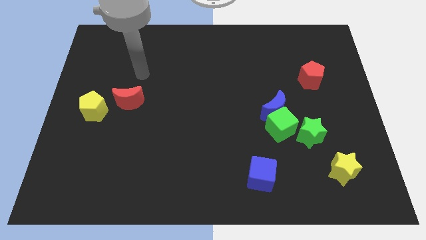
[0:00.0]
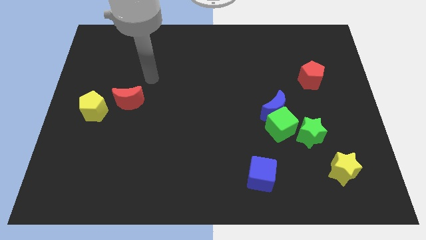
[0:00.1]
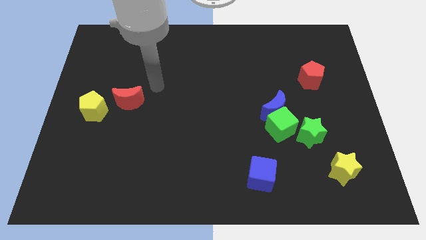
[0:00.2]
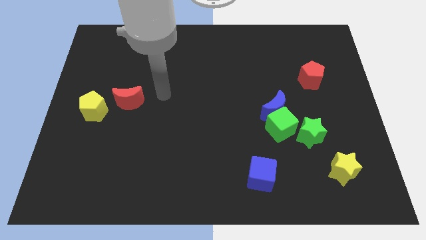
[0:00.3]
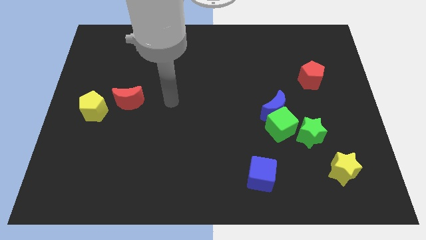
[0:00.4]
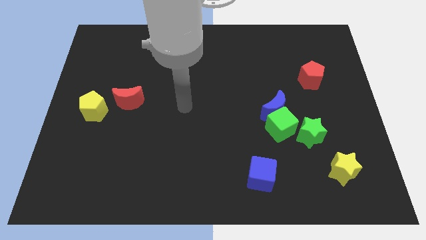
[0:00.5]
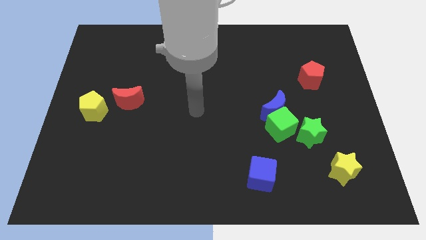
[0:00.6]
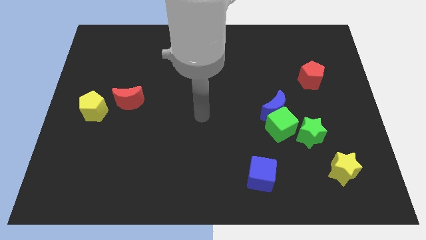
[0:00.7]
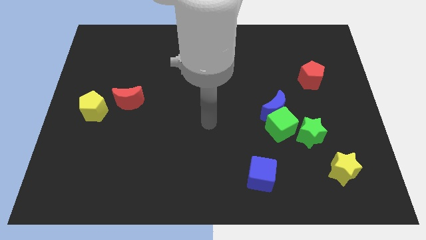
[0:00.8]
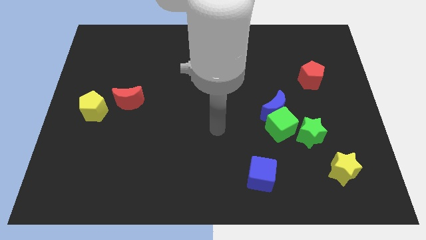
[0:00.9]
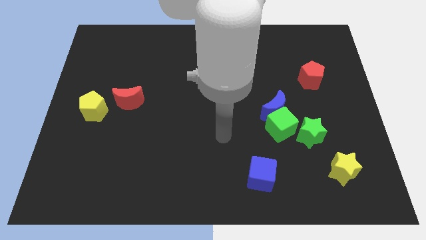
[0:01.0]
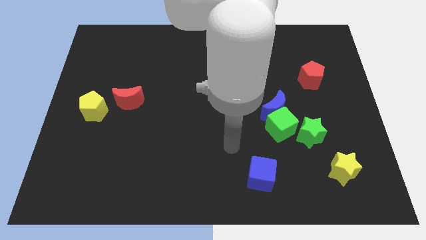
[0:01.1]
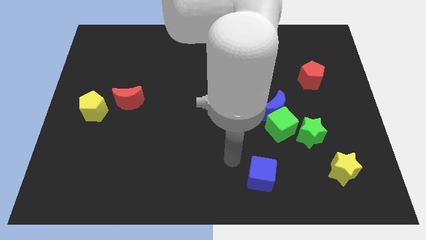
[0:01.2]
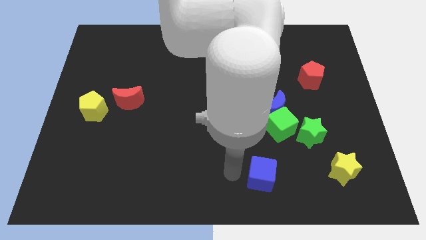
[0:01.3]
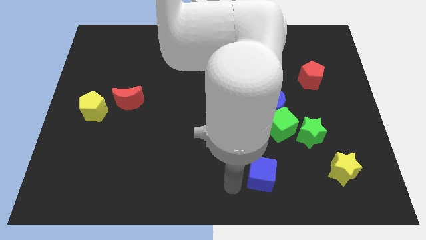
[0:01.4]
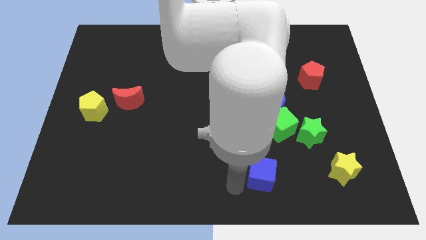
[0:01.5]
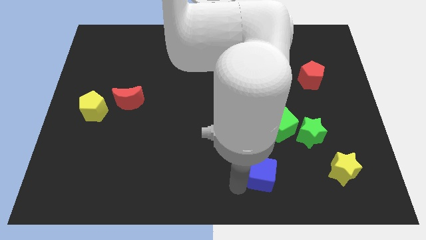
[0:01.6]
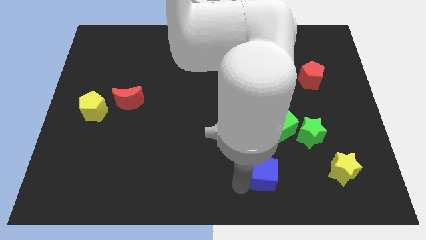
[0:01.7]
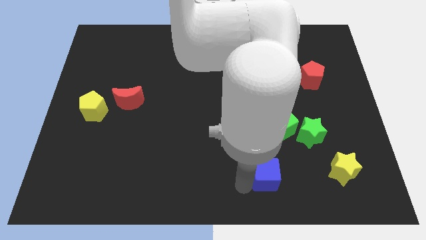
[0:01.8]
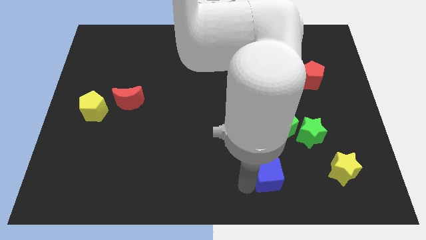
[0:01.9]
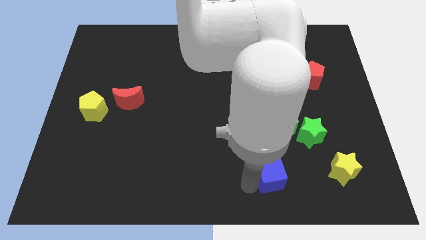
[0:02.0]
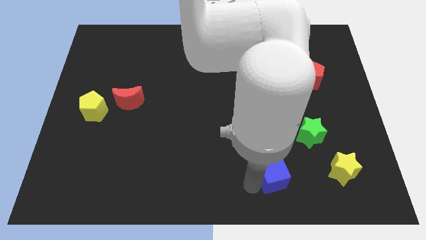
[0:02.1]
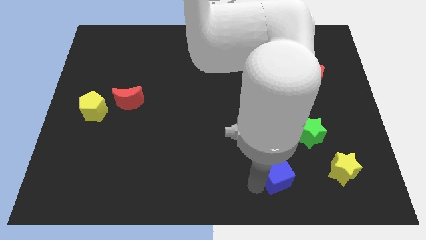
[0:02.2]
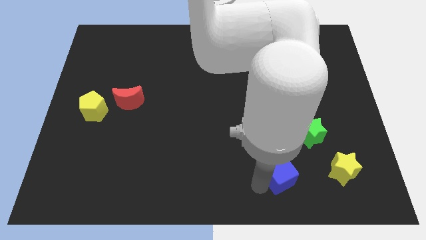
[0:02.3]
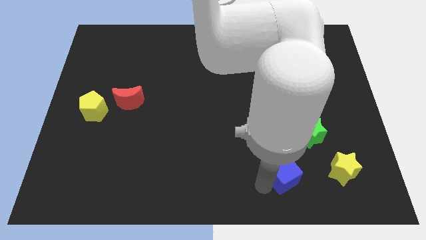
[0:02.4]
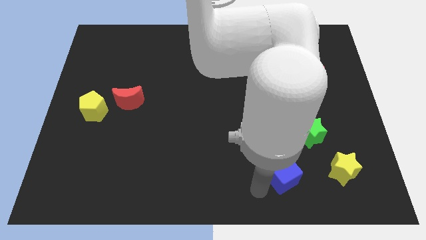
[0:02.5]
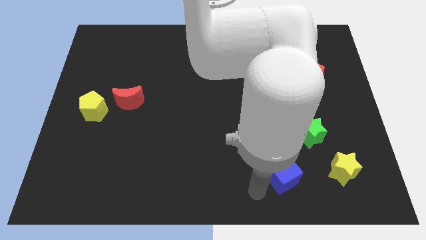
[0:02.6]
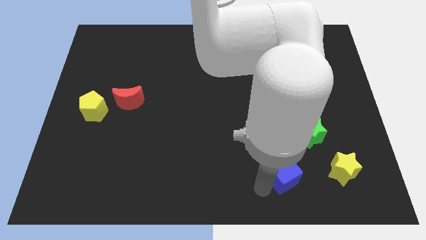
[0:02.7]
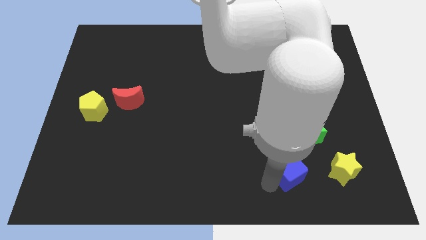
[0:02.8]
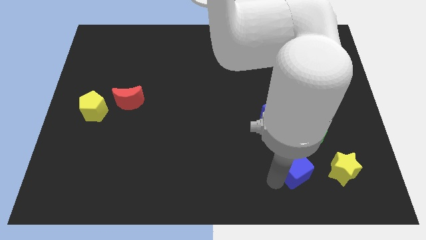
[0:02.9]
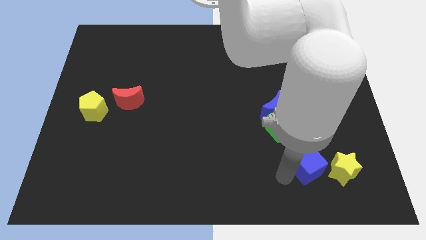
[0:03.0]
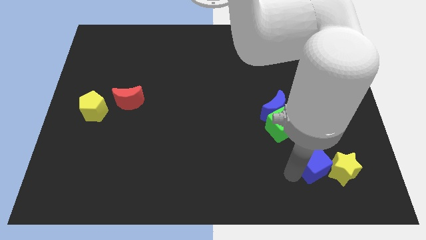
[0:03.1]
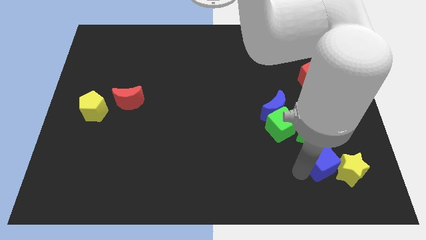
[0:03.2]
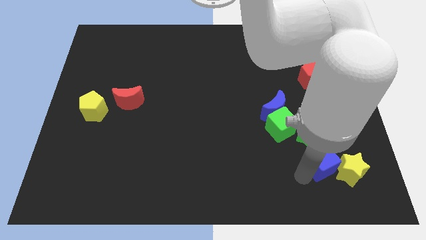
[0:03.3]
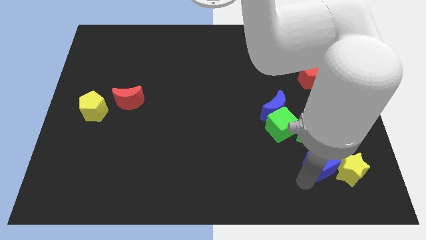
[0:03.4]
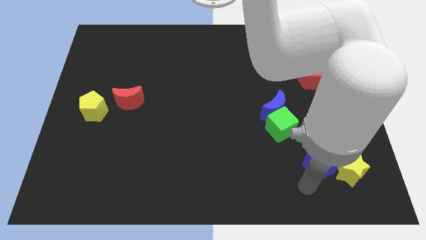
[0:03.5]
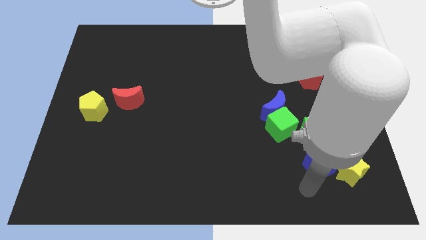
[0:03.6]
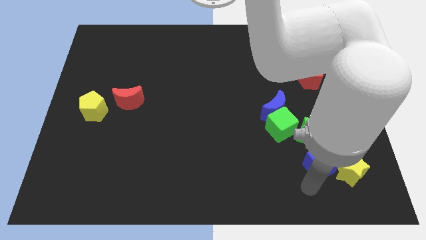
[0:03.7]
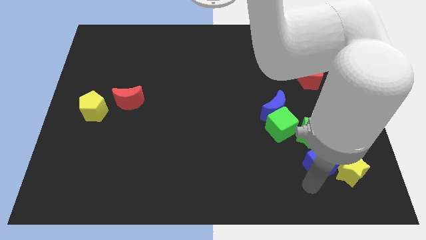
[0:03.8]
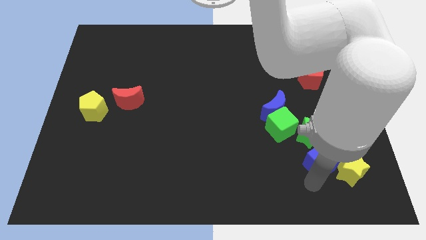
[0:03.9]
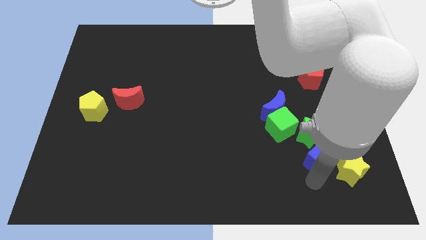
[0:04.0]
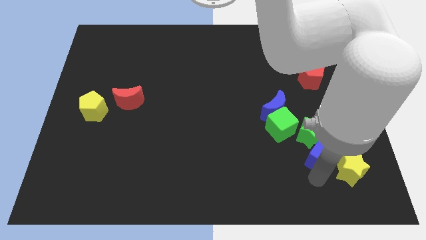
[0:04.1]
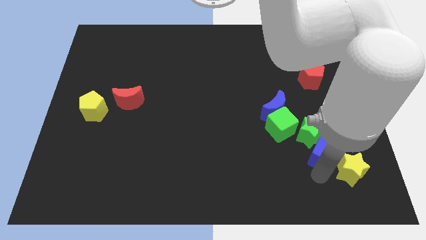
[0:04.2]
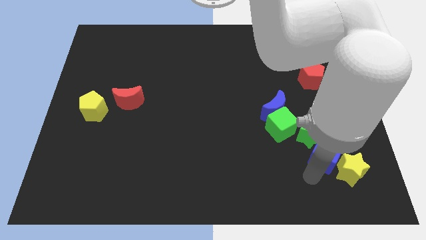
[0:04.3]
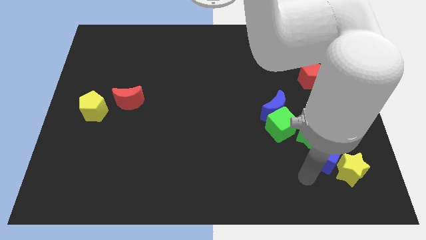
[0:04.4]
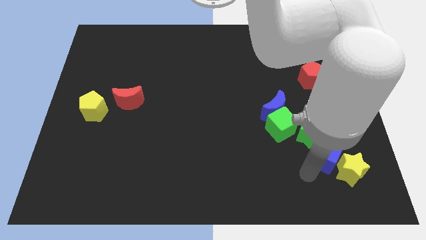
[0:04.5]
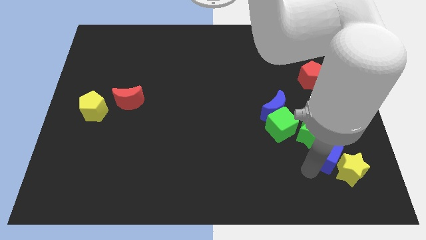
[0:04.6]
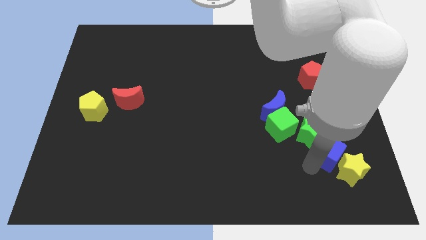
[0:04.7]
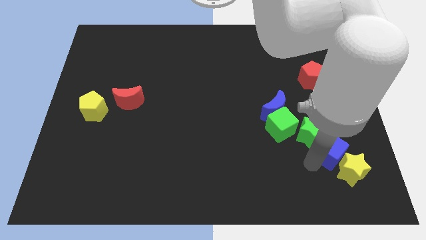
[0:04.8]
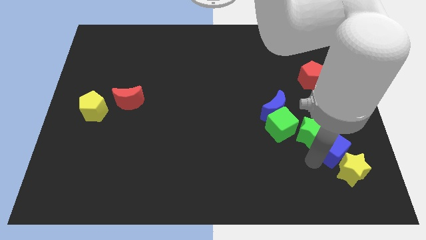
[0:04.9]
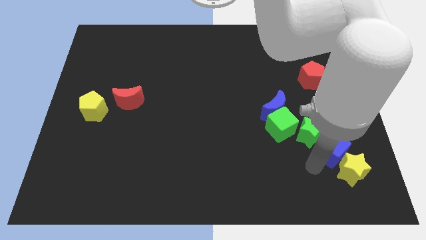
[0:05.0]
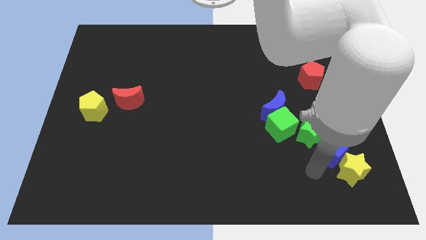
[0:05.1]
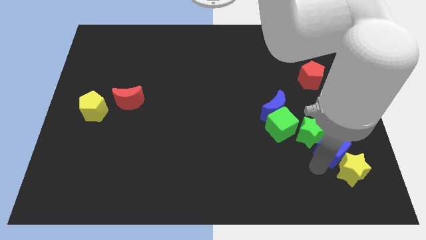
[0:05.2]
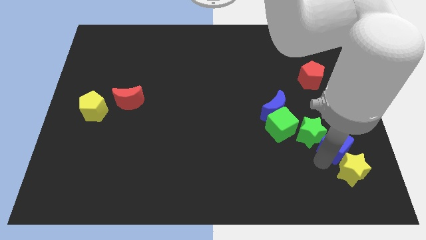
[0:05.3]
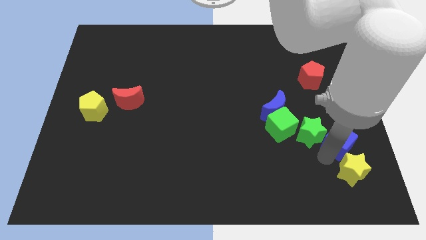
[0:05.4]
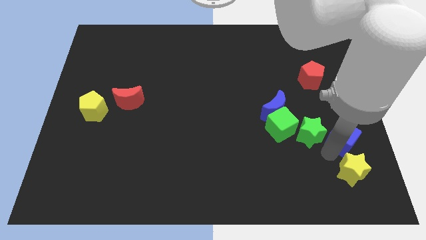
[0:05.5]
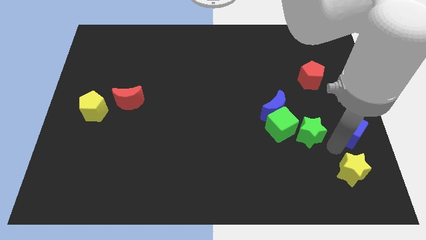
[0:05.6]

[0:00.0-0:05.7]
push the blue cube to the right side
